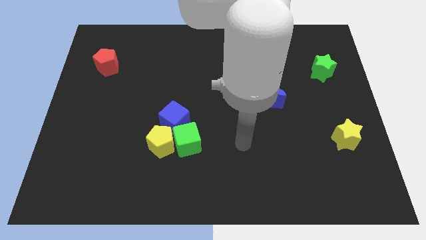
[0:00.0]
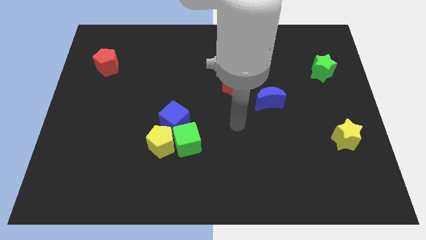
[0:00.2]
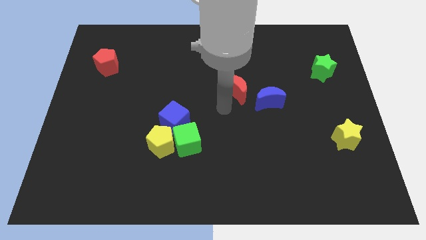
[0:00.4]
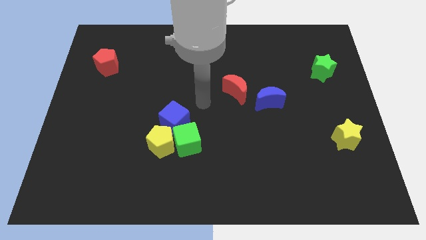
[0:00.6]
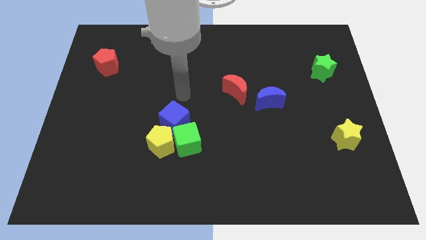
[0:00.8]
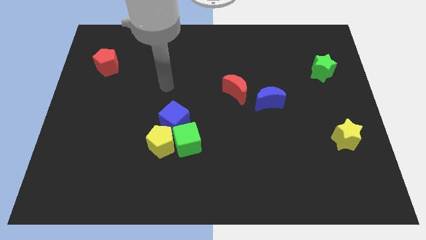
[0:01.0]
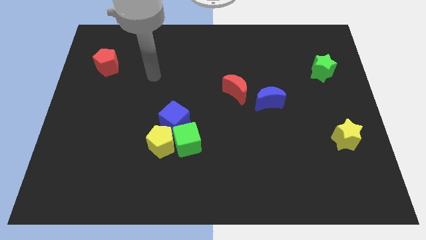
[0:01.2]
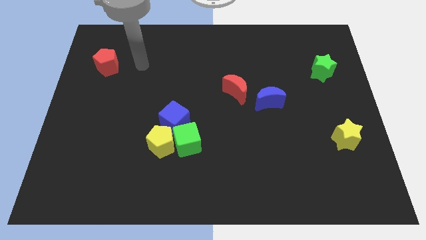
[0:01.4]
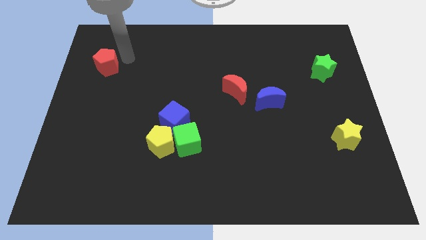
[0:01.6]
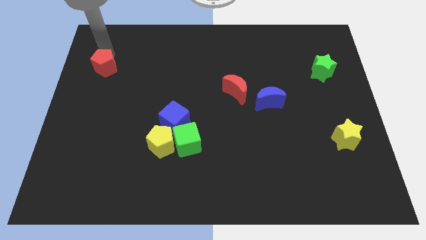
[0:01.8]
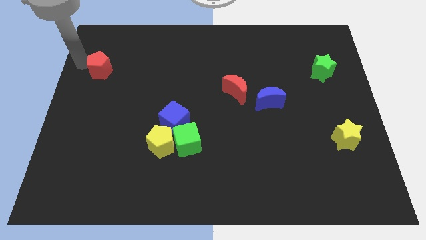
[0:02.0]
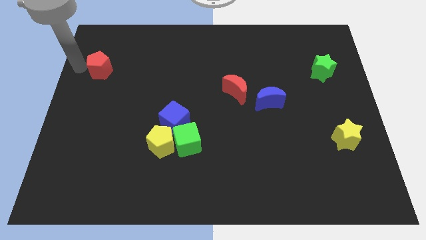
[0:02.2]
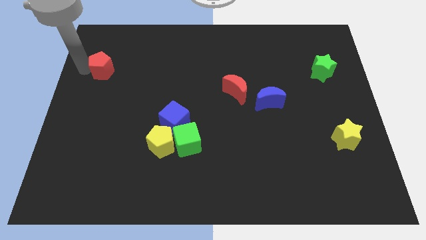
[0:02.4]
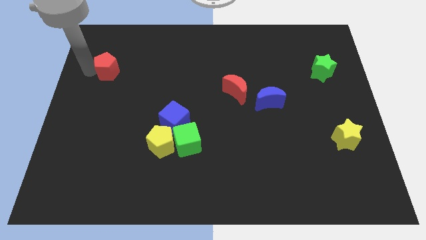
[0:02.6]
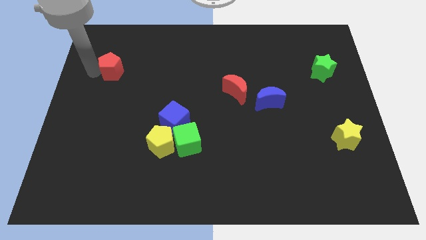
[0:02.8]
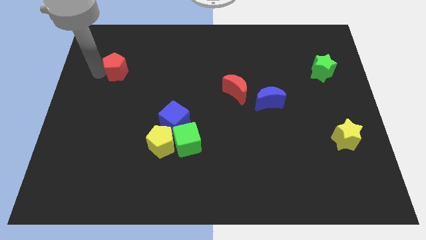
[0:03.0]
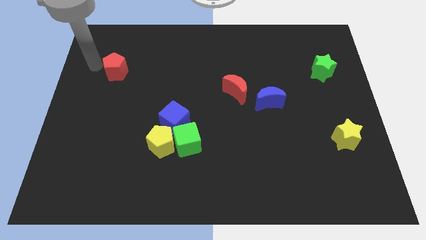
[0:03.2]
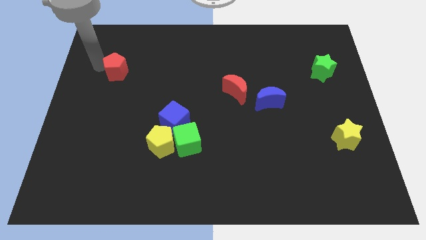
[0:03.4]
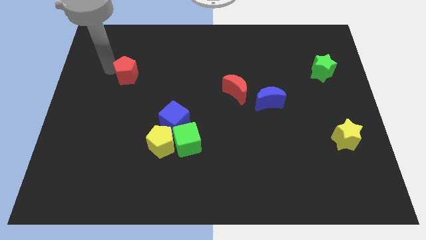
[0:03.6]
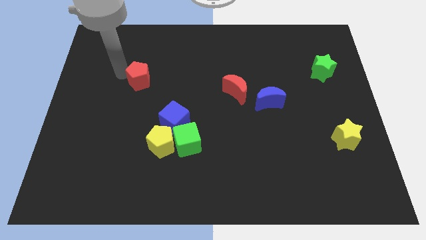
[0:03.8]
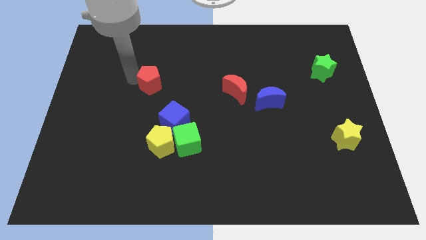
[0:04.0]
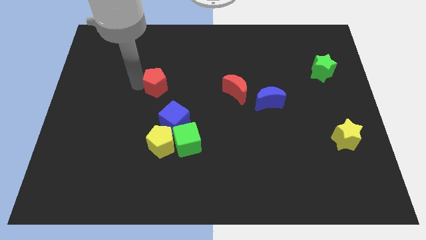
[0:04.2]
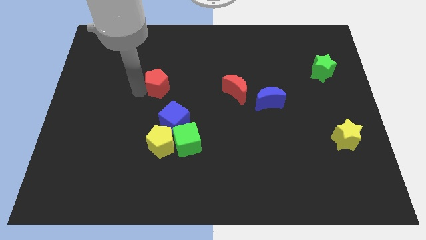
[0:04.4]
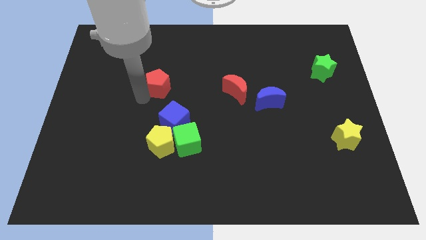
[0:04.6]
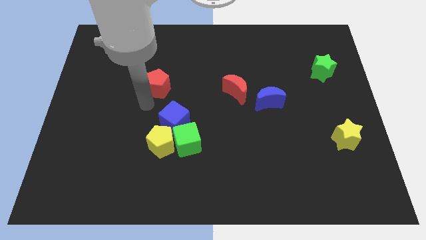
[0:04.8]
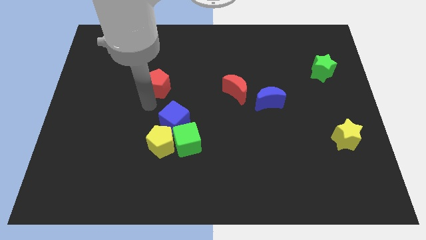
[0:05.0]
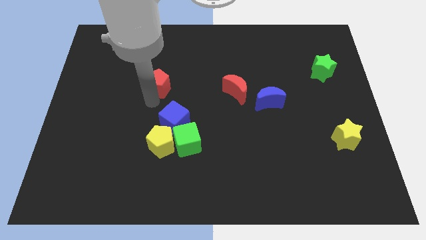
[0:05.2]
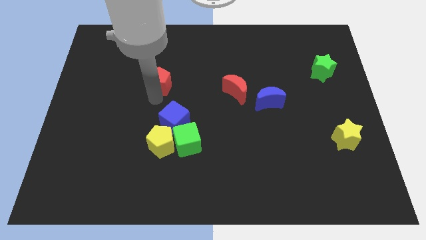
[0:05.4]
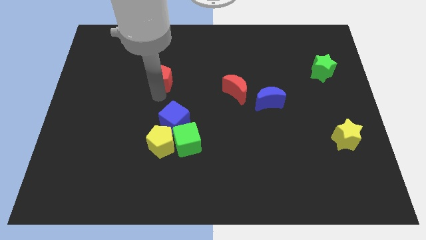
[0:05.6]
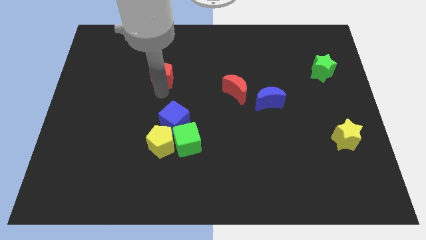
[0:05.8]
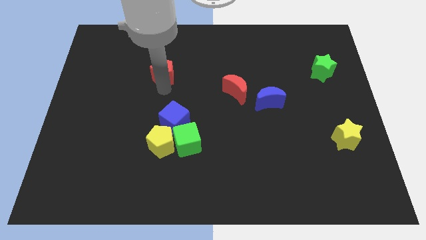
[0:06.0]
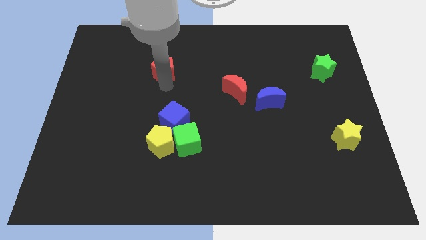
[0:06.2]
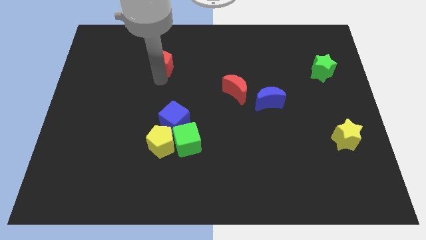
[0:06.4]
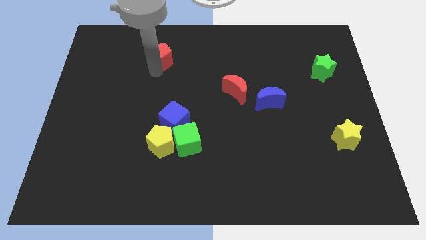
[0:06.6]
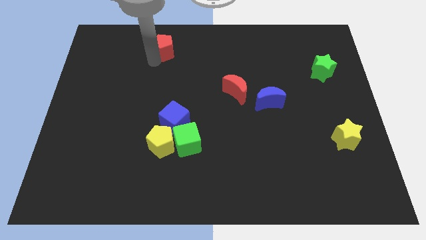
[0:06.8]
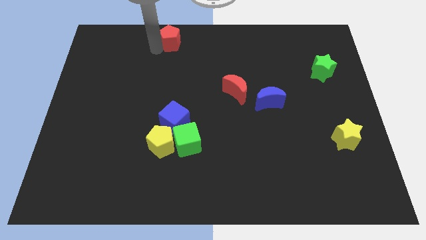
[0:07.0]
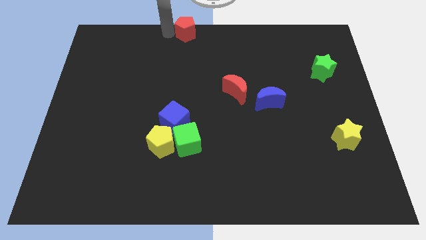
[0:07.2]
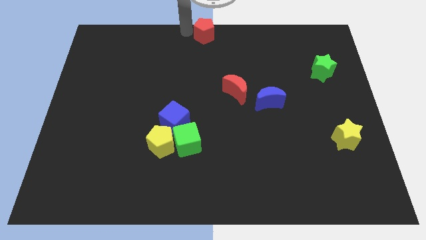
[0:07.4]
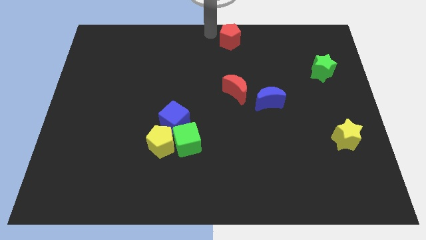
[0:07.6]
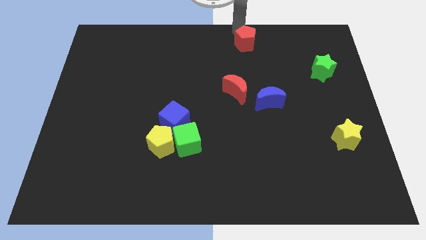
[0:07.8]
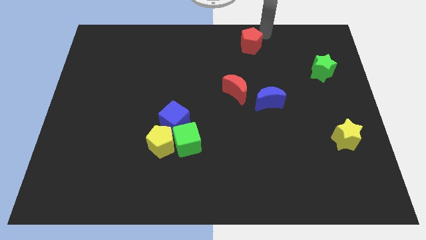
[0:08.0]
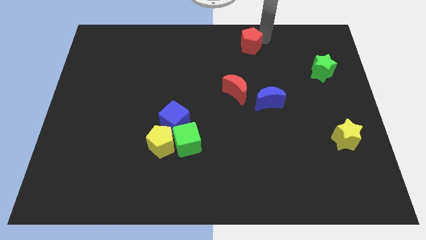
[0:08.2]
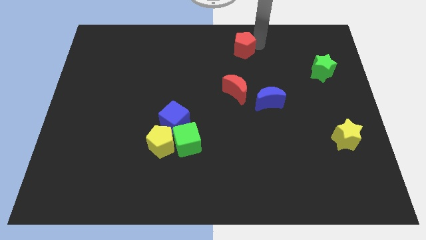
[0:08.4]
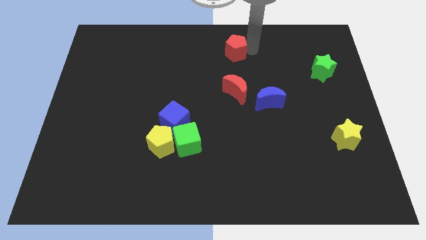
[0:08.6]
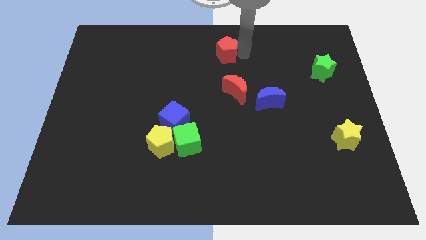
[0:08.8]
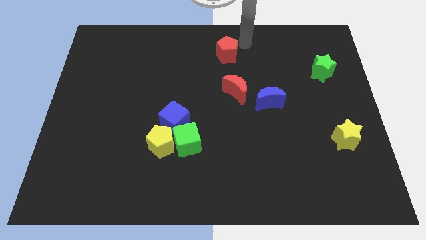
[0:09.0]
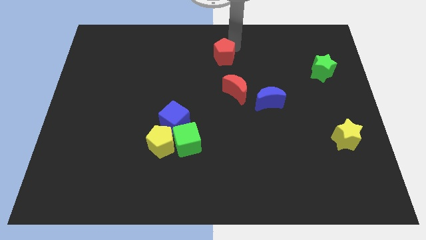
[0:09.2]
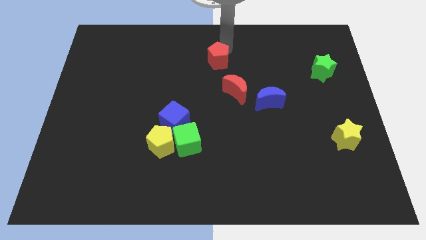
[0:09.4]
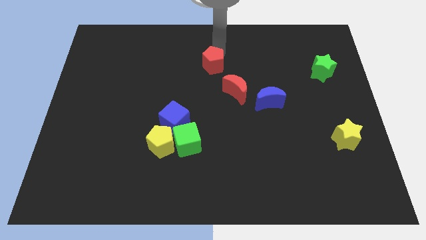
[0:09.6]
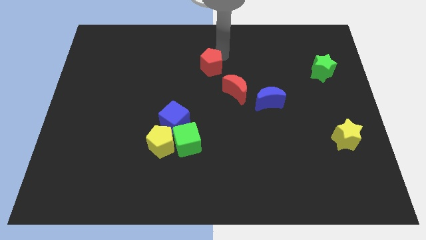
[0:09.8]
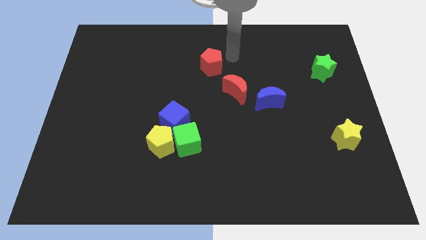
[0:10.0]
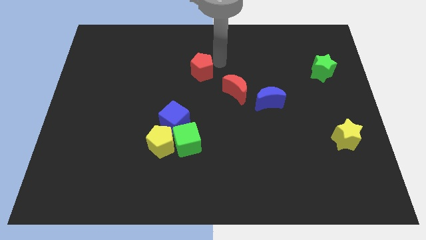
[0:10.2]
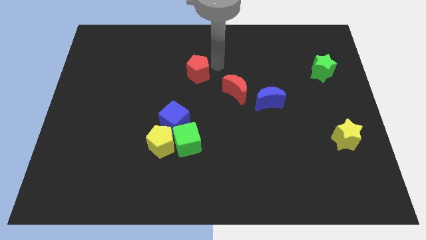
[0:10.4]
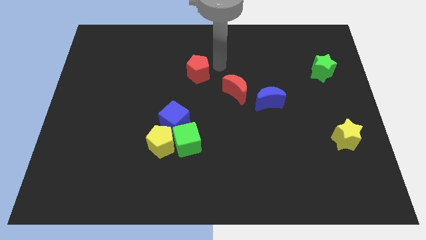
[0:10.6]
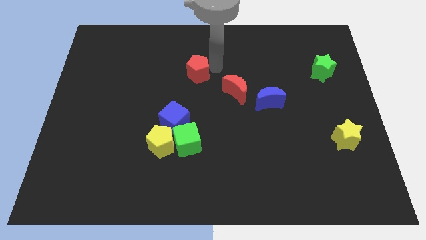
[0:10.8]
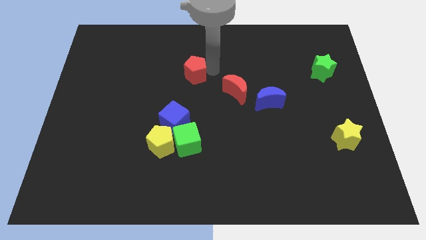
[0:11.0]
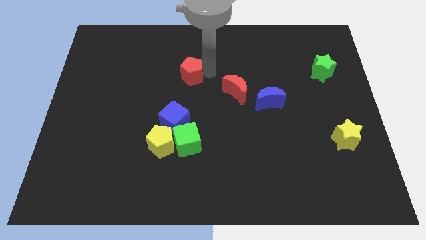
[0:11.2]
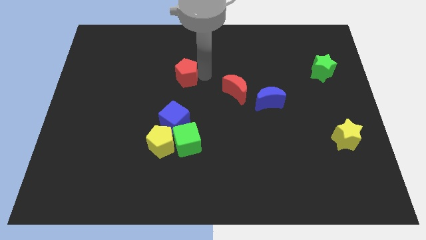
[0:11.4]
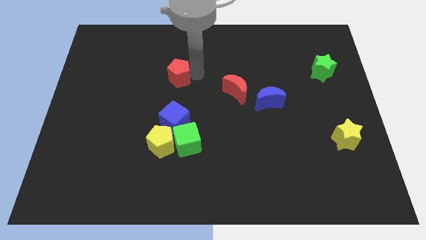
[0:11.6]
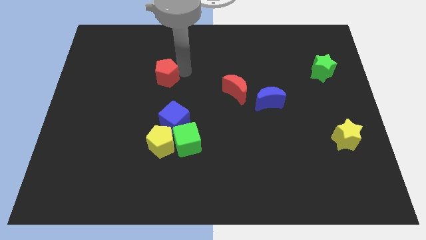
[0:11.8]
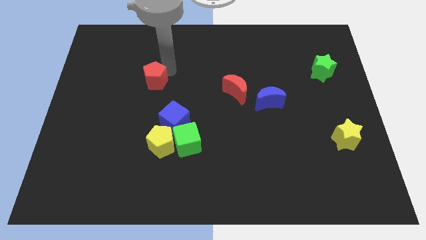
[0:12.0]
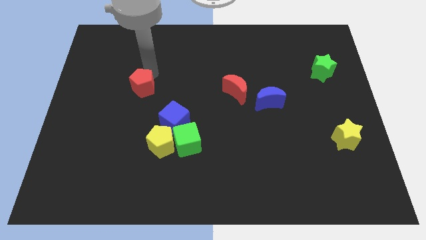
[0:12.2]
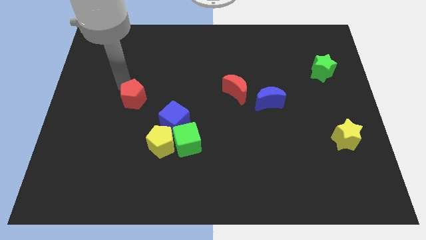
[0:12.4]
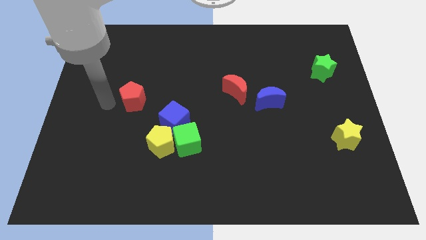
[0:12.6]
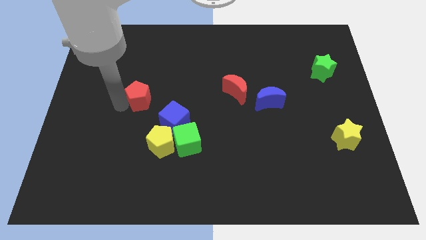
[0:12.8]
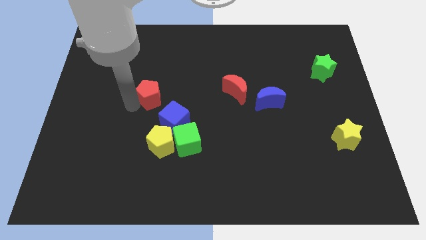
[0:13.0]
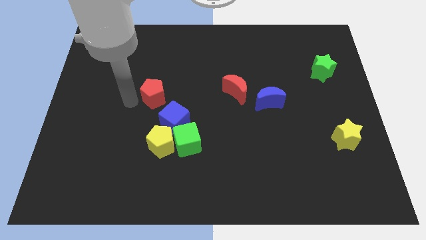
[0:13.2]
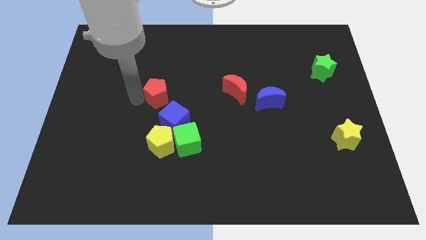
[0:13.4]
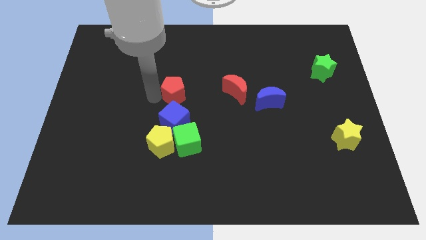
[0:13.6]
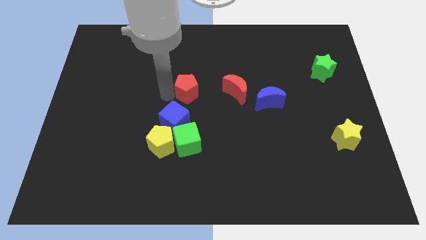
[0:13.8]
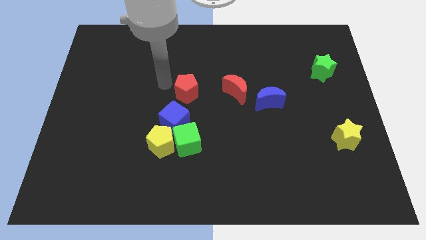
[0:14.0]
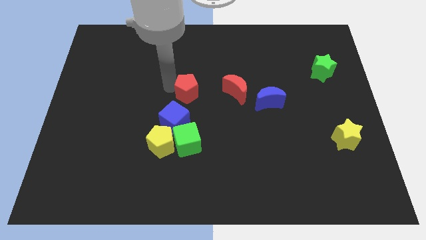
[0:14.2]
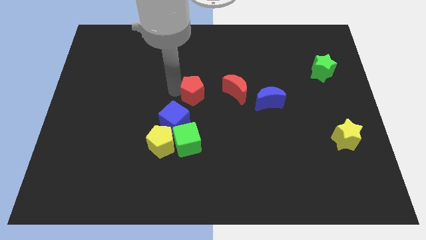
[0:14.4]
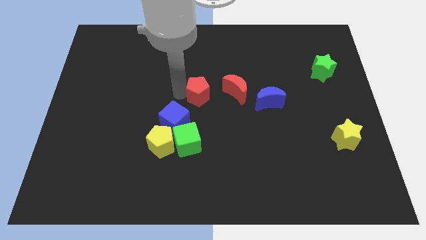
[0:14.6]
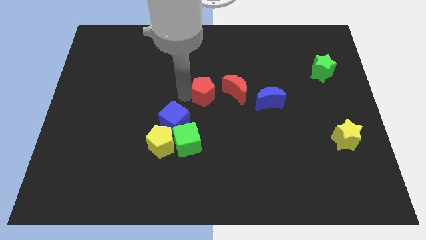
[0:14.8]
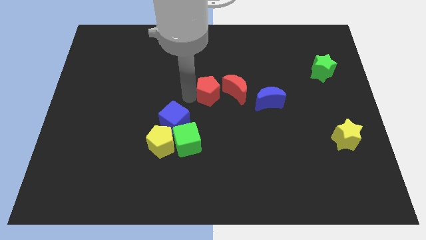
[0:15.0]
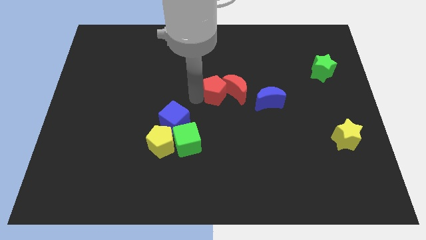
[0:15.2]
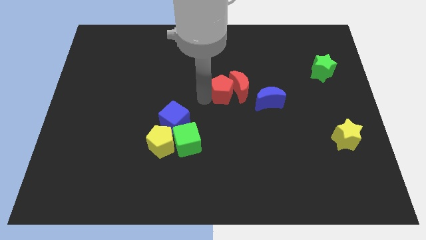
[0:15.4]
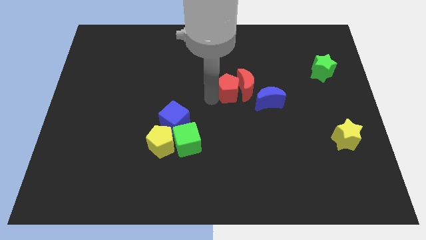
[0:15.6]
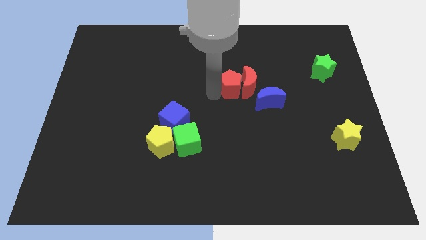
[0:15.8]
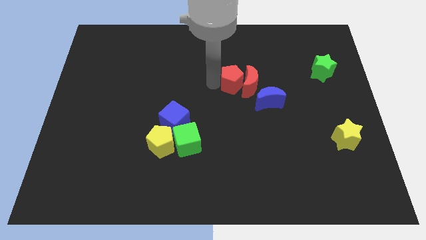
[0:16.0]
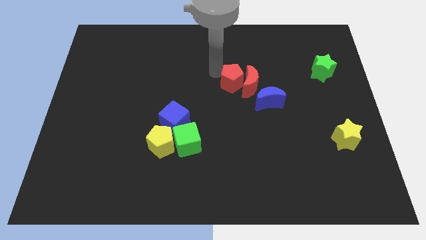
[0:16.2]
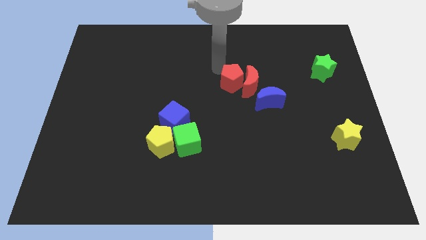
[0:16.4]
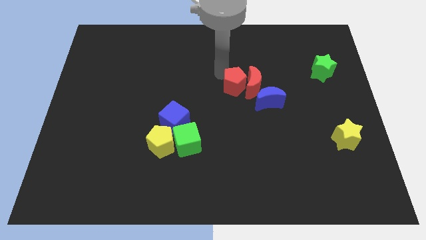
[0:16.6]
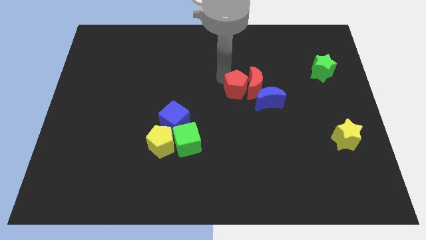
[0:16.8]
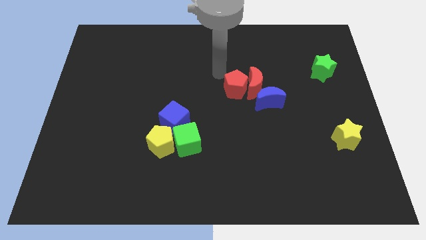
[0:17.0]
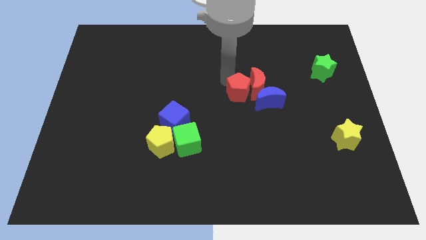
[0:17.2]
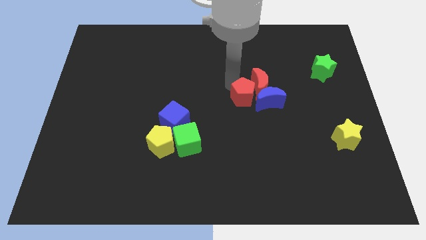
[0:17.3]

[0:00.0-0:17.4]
slide the red pentagon towards the blue moon
